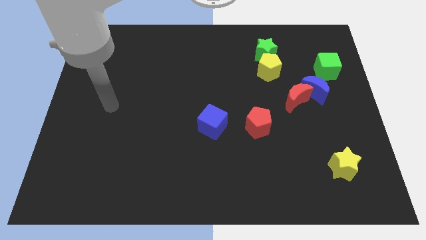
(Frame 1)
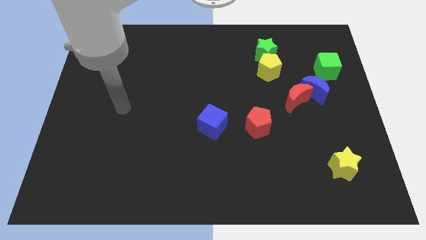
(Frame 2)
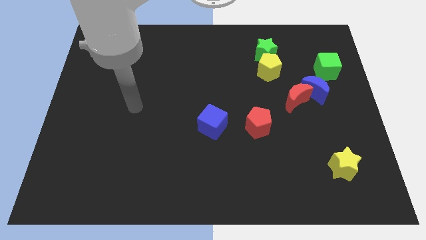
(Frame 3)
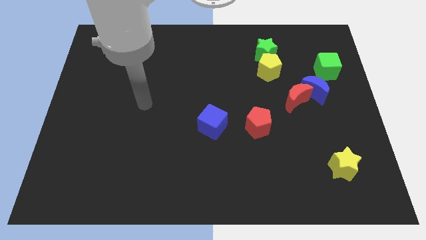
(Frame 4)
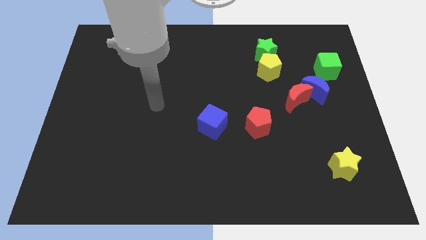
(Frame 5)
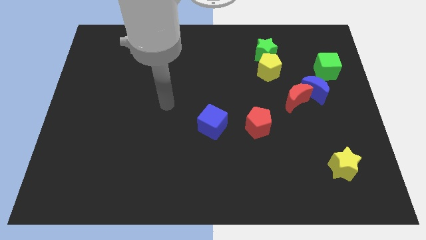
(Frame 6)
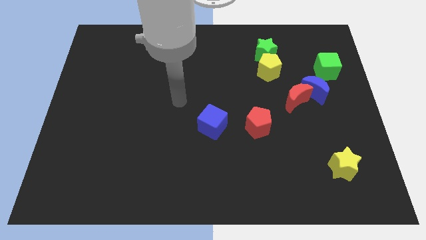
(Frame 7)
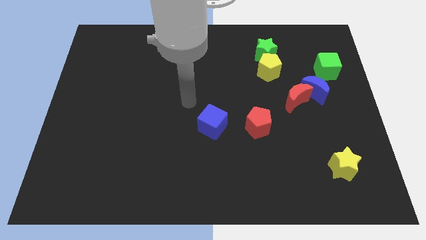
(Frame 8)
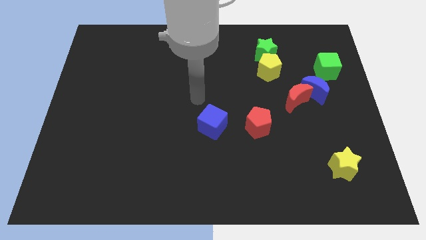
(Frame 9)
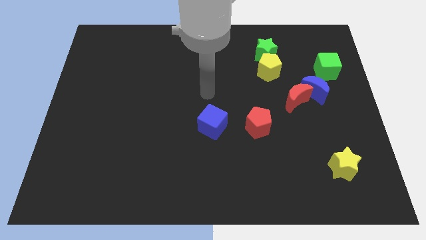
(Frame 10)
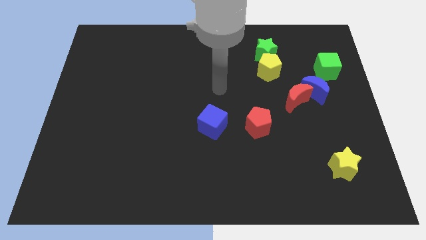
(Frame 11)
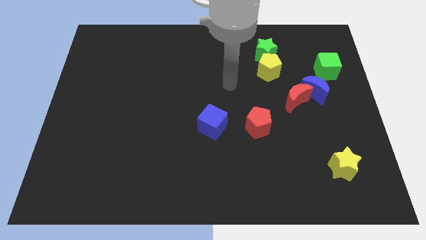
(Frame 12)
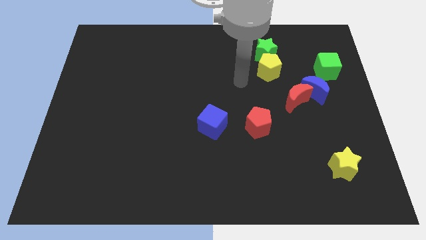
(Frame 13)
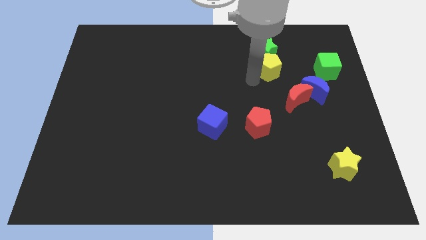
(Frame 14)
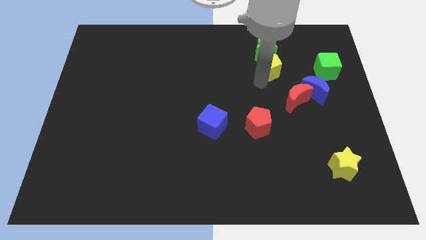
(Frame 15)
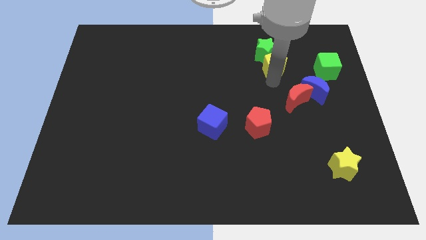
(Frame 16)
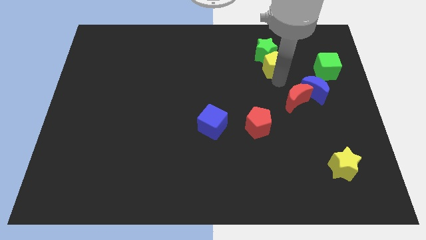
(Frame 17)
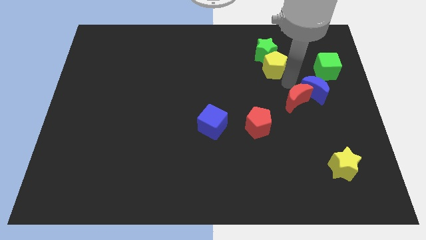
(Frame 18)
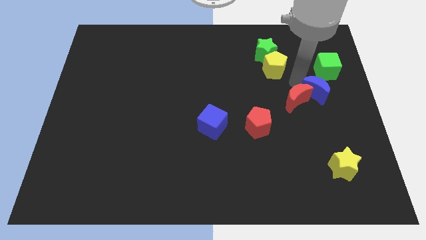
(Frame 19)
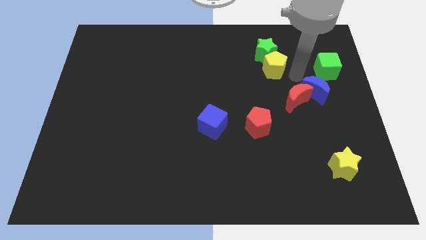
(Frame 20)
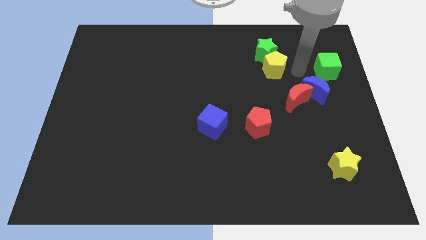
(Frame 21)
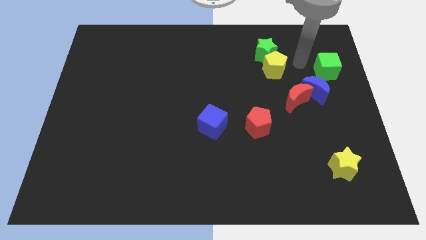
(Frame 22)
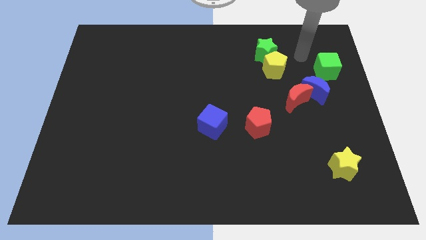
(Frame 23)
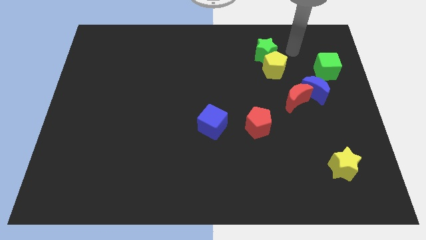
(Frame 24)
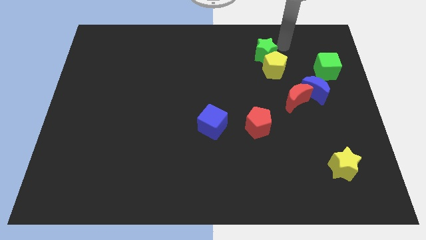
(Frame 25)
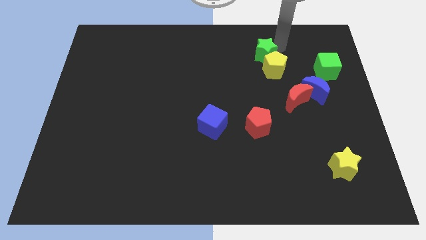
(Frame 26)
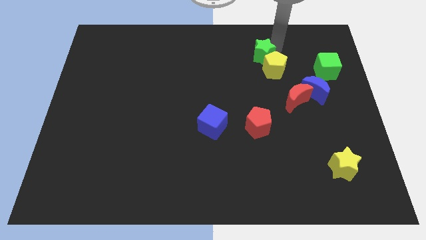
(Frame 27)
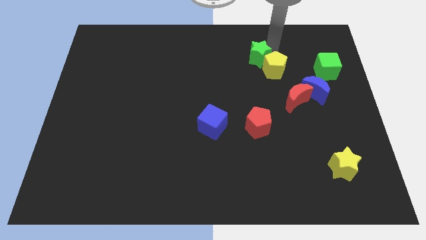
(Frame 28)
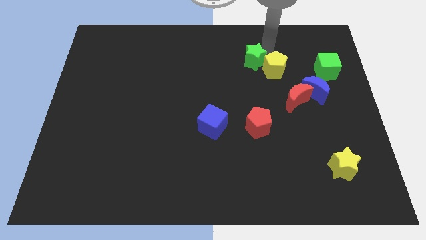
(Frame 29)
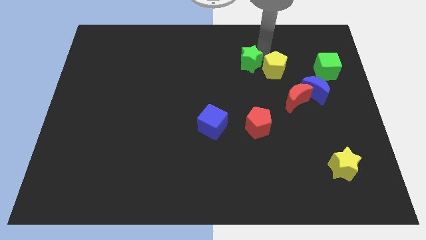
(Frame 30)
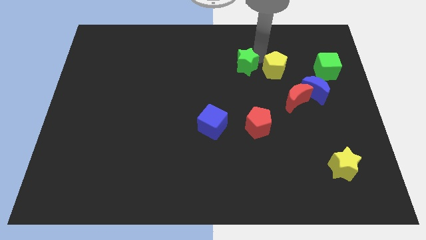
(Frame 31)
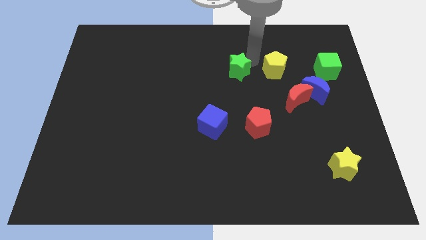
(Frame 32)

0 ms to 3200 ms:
slide the green star a little diagonally downwards and to the left

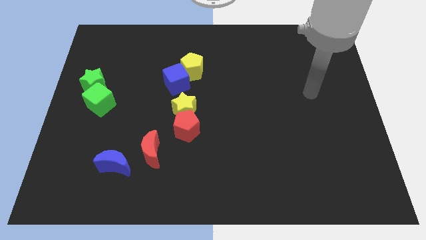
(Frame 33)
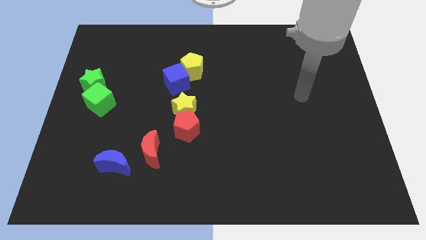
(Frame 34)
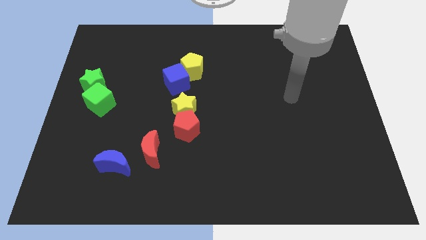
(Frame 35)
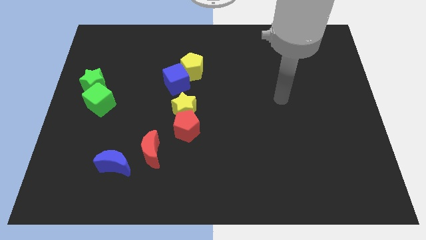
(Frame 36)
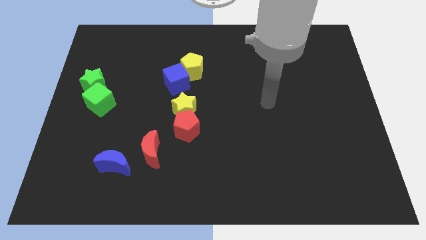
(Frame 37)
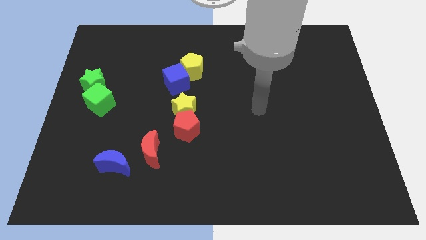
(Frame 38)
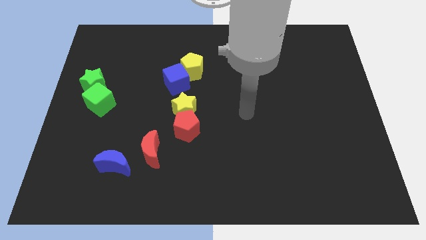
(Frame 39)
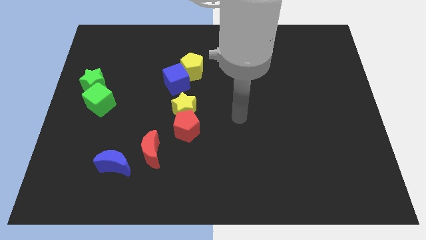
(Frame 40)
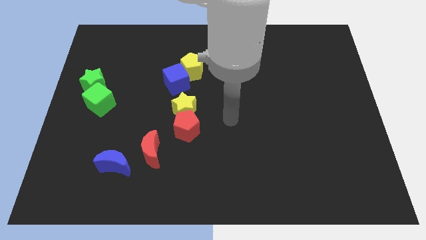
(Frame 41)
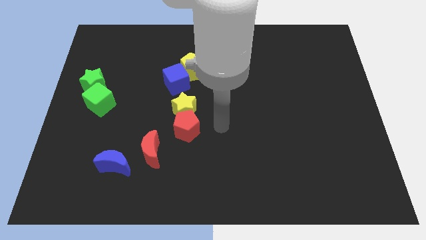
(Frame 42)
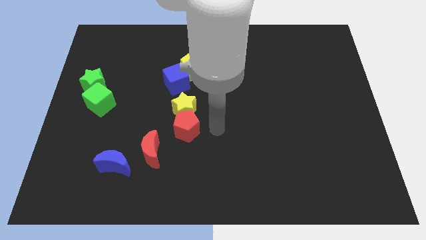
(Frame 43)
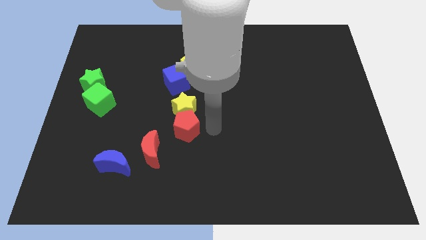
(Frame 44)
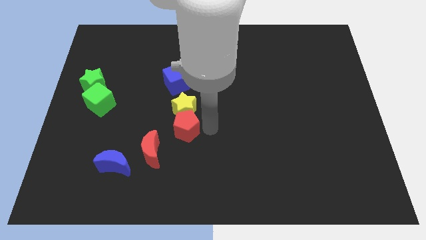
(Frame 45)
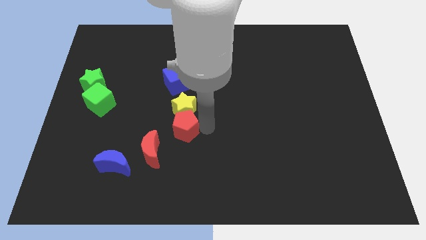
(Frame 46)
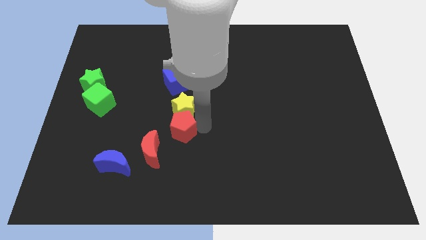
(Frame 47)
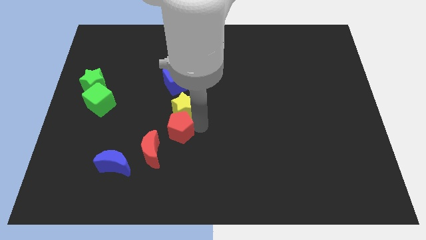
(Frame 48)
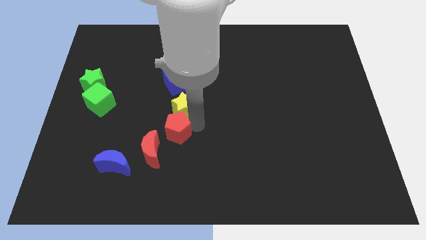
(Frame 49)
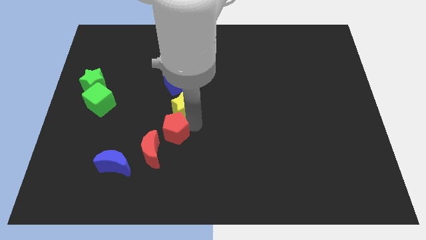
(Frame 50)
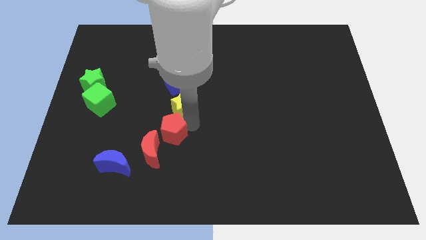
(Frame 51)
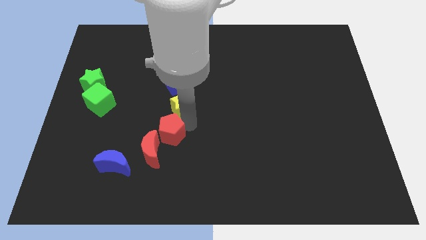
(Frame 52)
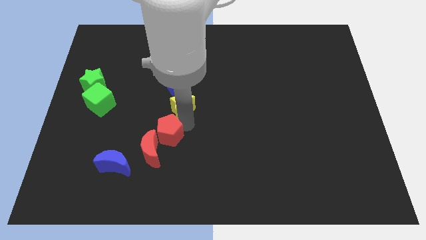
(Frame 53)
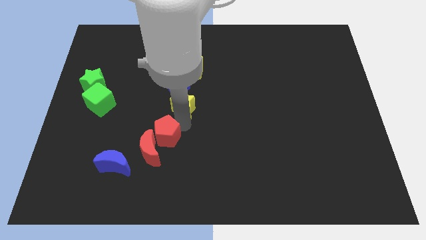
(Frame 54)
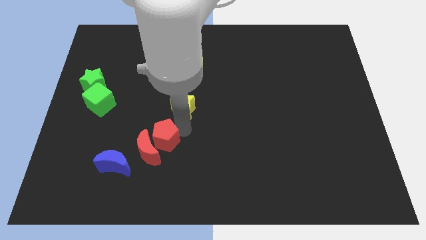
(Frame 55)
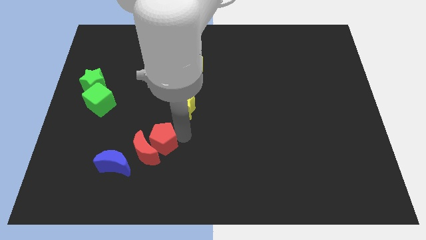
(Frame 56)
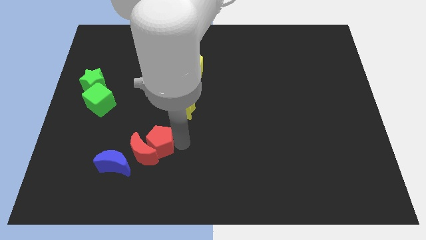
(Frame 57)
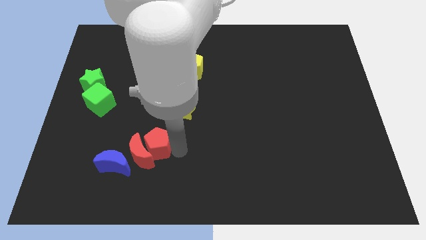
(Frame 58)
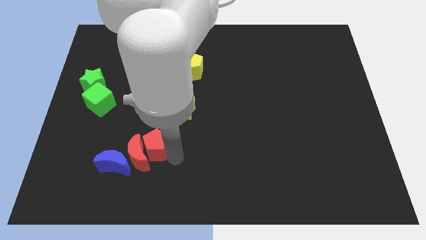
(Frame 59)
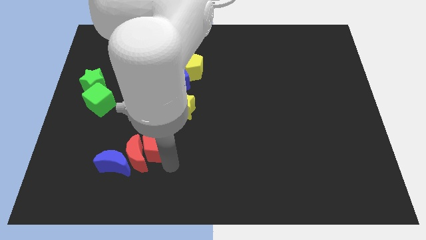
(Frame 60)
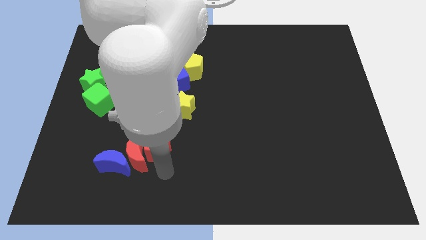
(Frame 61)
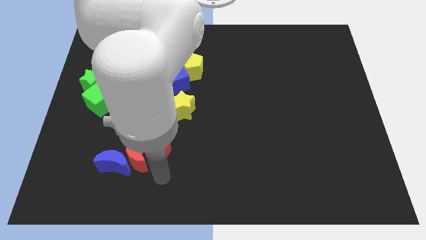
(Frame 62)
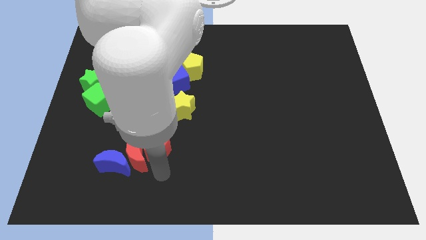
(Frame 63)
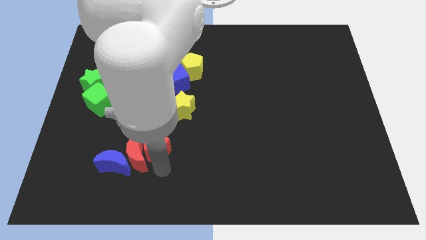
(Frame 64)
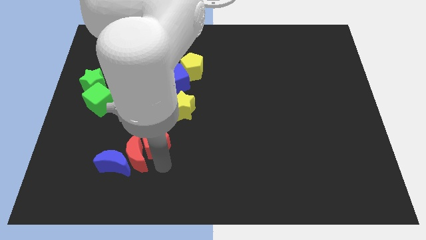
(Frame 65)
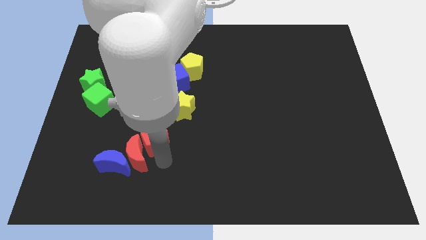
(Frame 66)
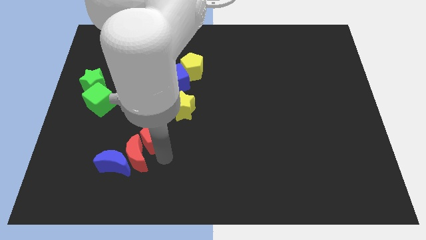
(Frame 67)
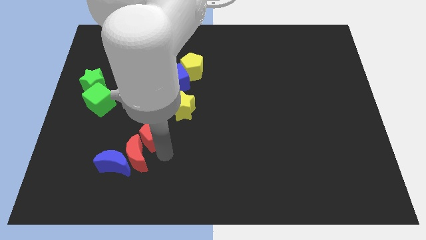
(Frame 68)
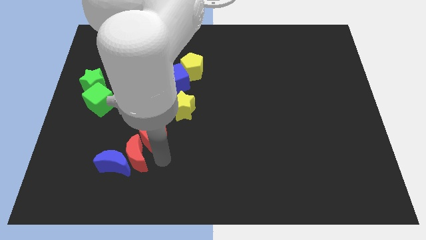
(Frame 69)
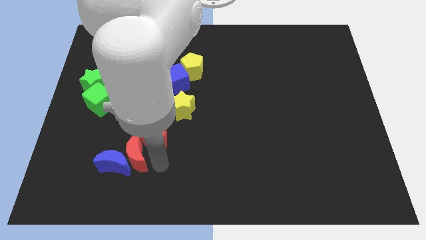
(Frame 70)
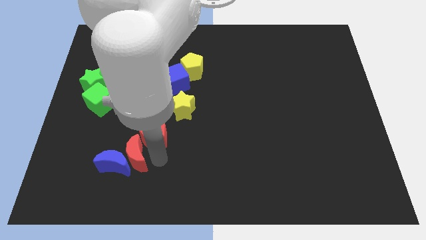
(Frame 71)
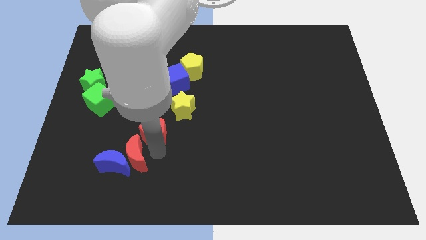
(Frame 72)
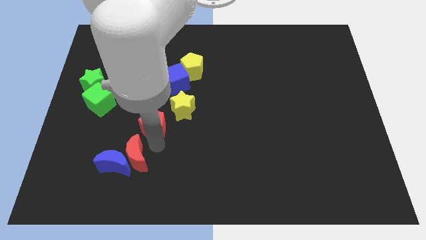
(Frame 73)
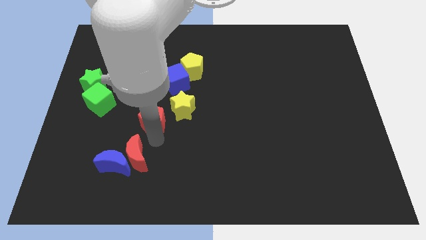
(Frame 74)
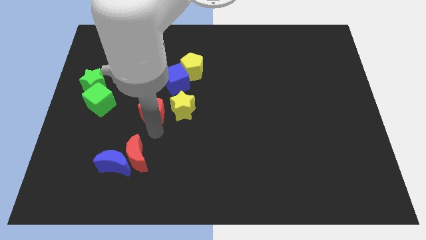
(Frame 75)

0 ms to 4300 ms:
slide the red pentagon a little up and left diagonally

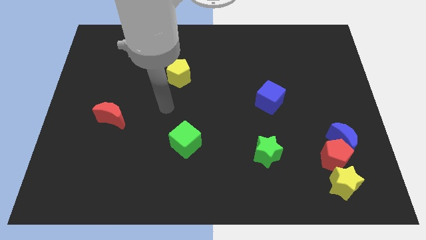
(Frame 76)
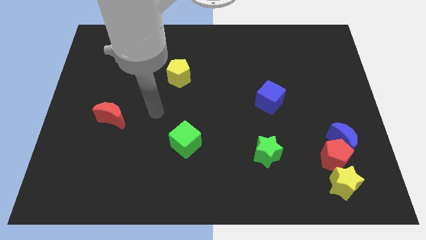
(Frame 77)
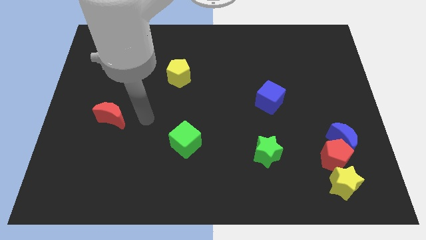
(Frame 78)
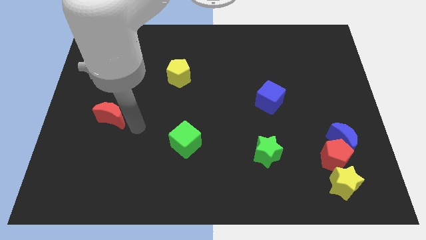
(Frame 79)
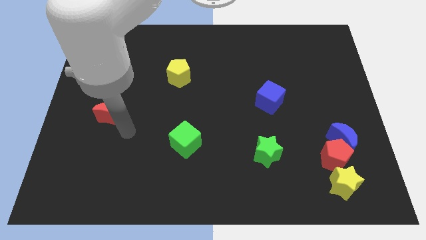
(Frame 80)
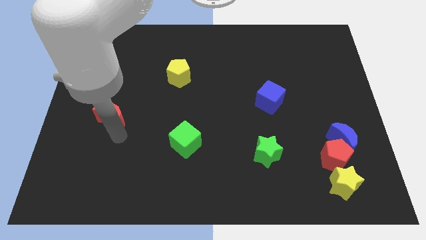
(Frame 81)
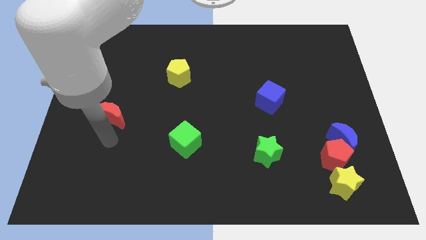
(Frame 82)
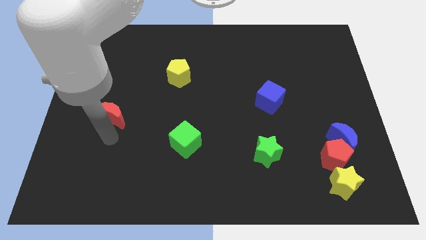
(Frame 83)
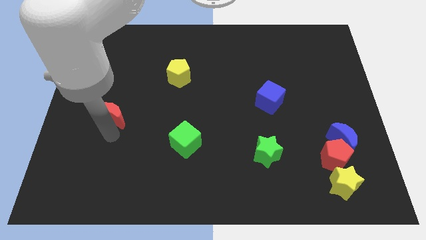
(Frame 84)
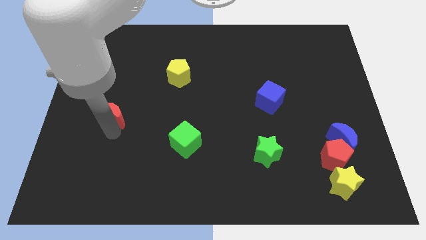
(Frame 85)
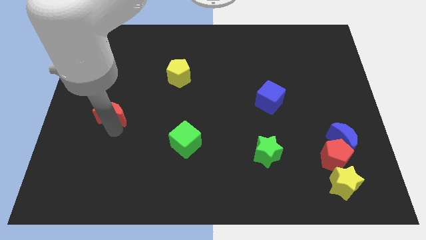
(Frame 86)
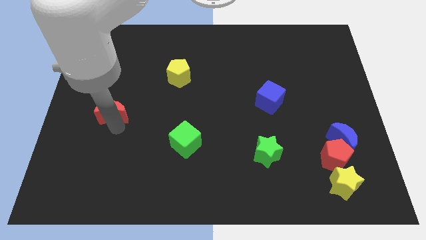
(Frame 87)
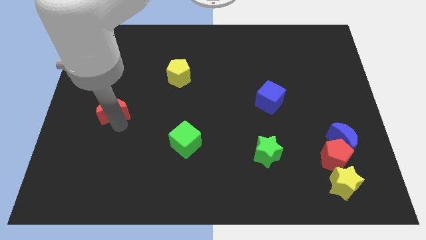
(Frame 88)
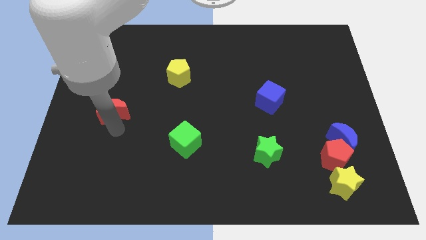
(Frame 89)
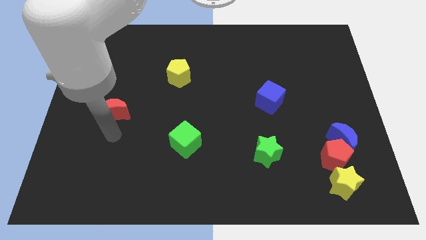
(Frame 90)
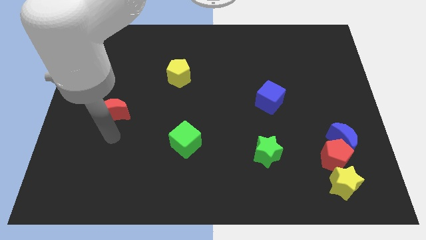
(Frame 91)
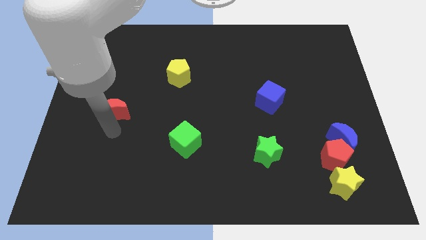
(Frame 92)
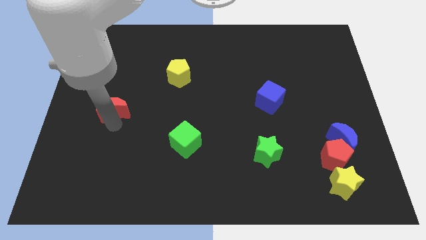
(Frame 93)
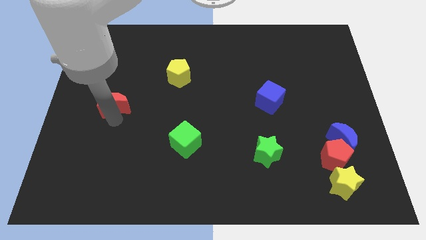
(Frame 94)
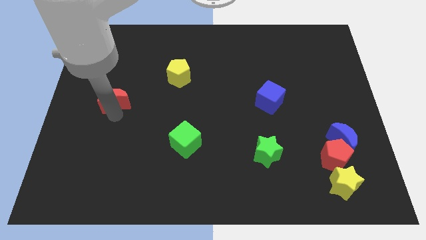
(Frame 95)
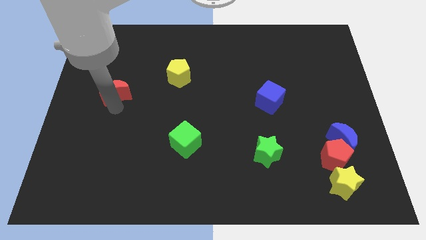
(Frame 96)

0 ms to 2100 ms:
push the red moon up a bit
